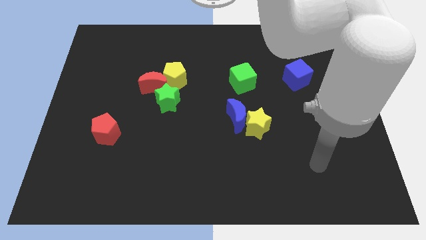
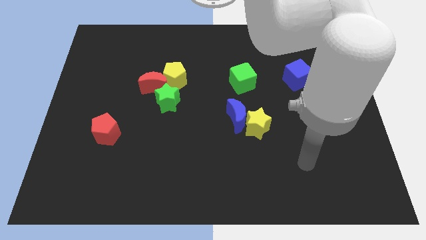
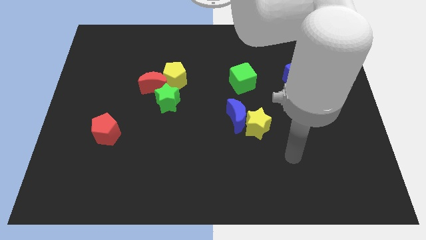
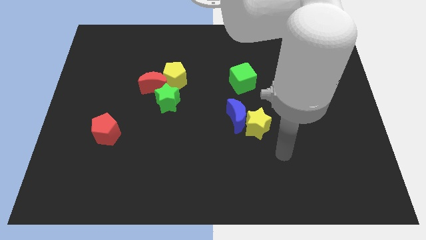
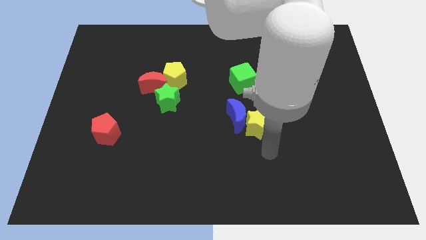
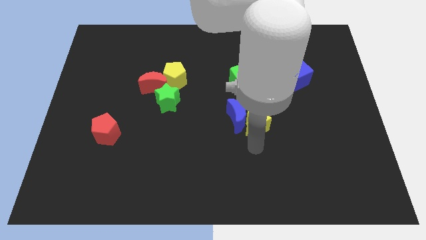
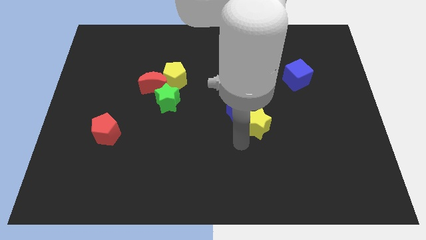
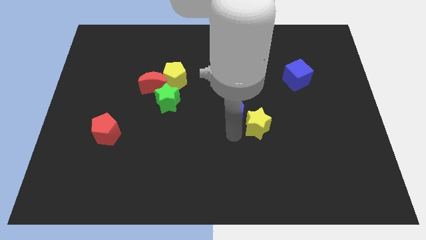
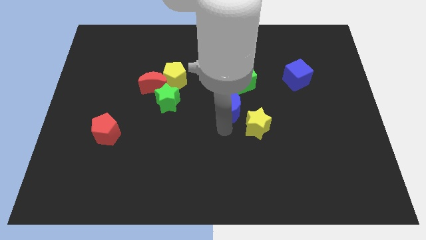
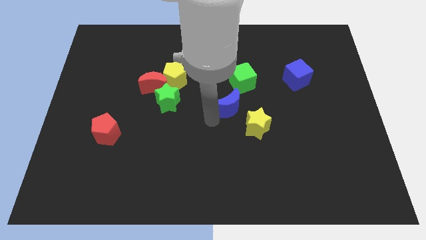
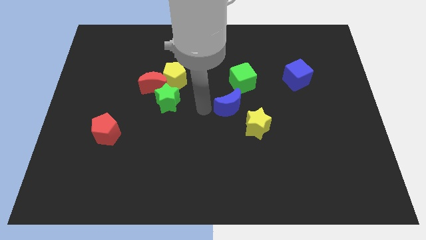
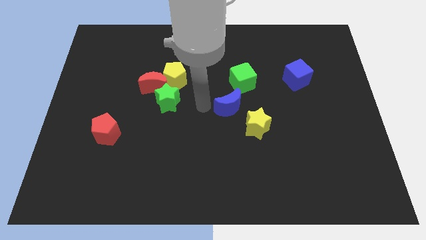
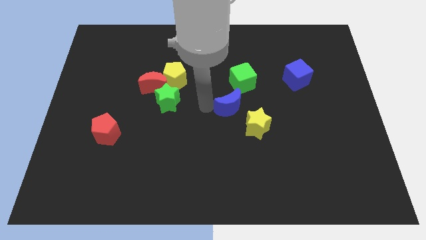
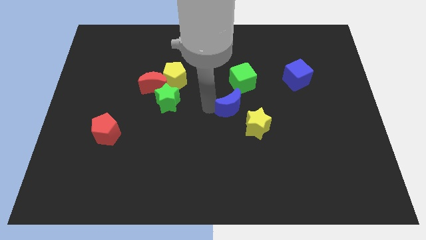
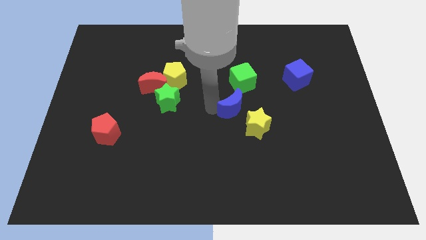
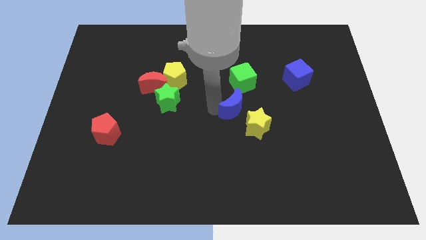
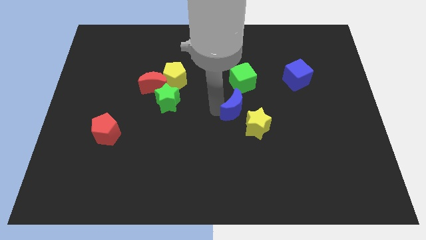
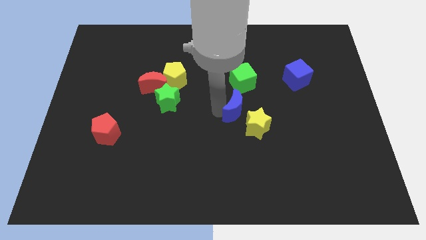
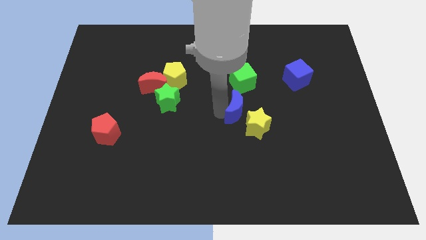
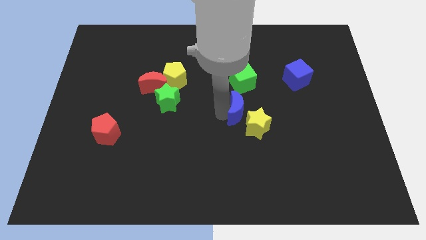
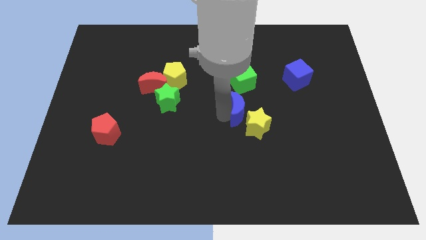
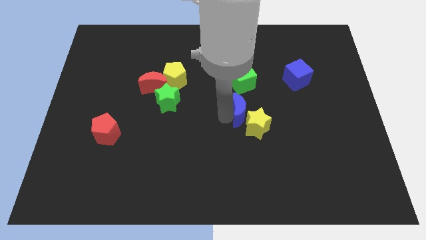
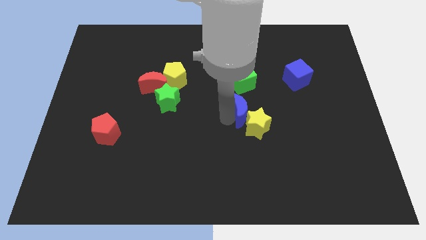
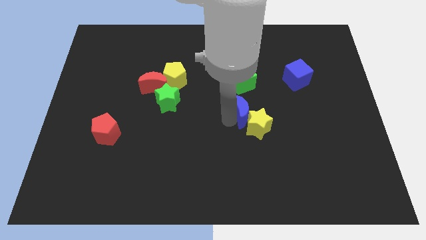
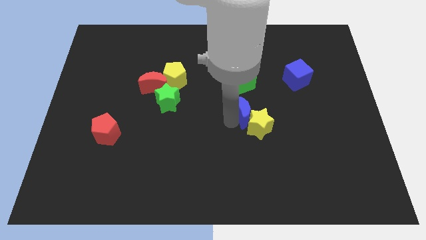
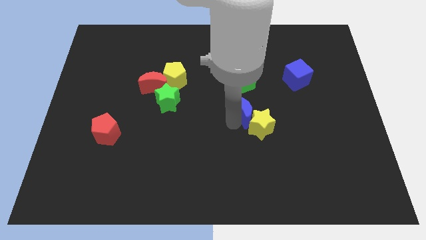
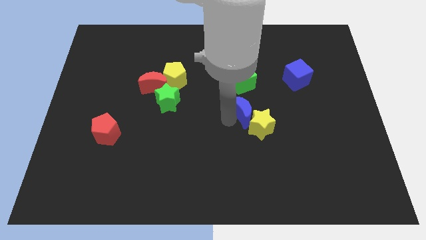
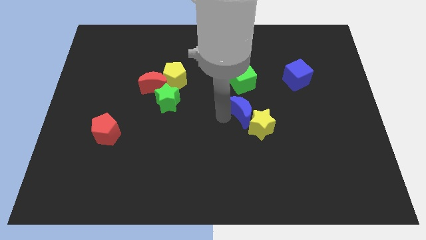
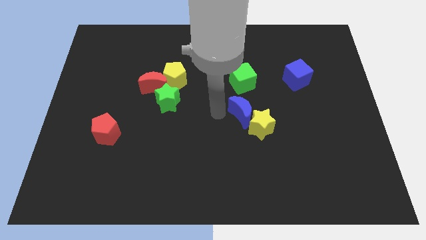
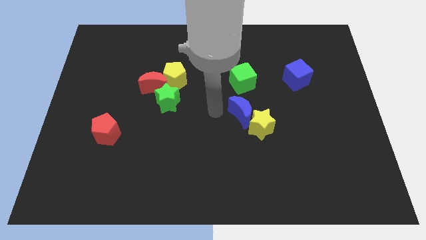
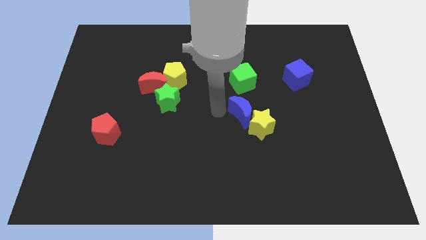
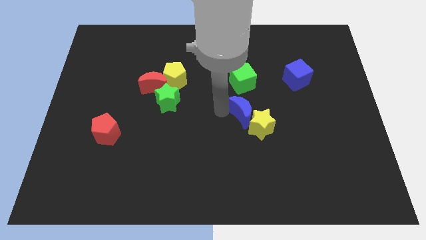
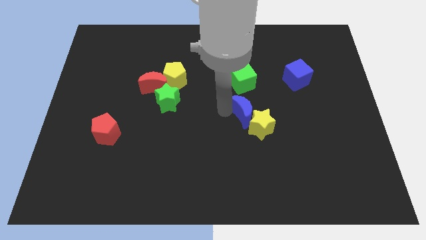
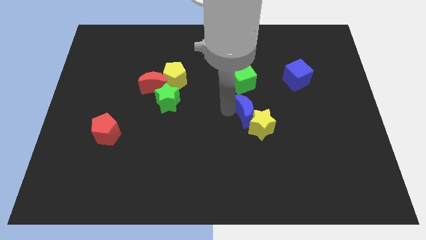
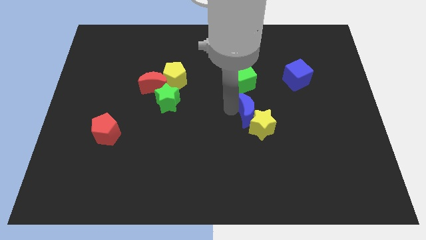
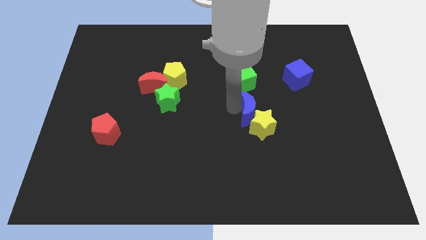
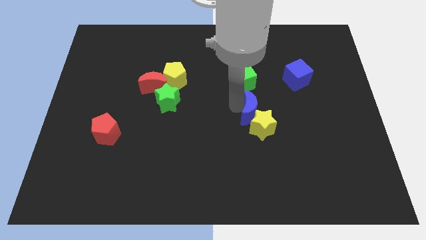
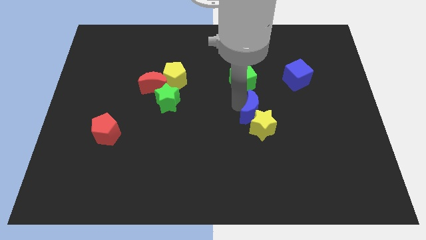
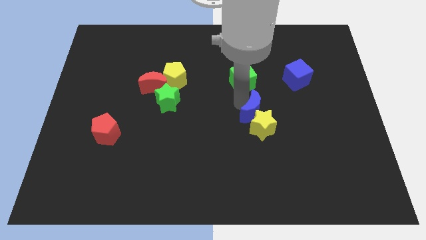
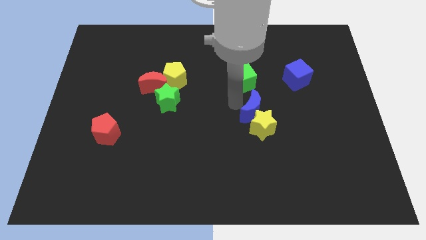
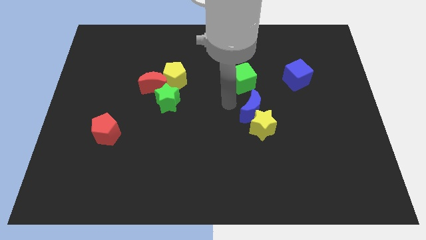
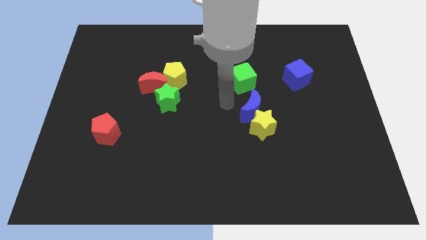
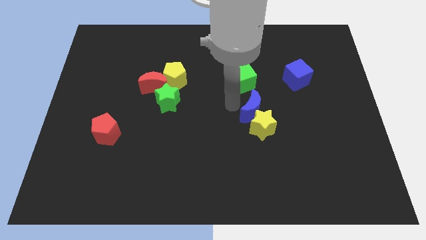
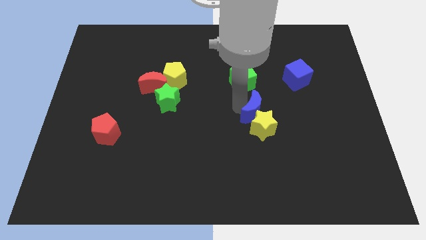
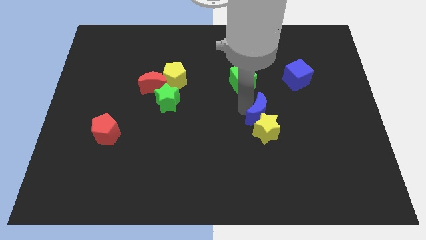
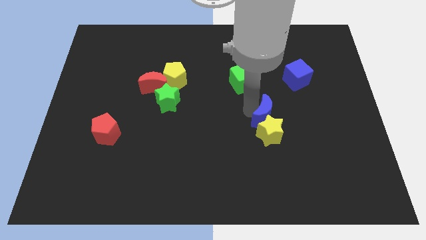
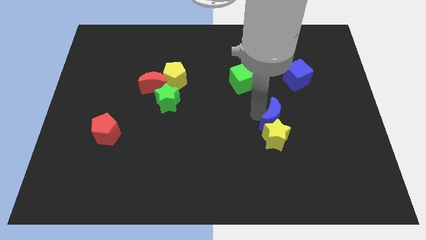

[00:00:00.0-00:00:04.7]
slightly move the blue moon right

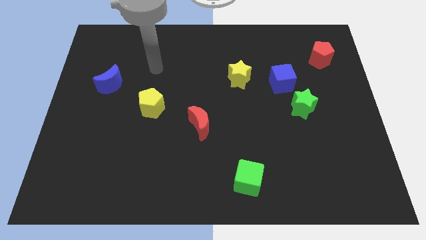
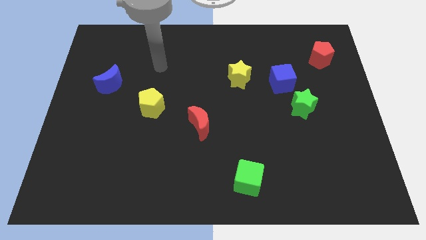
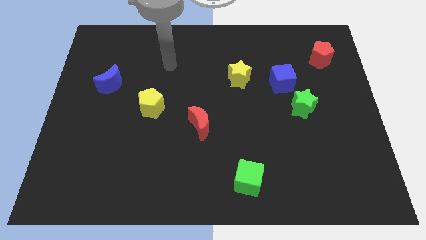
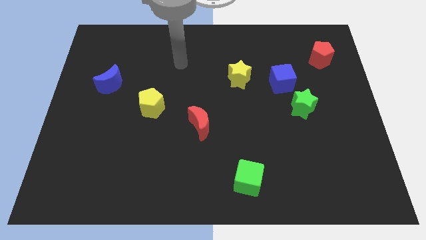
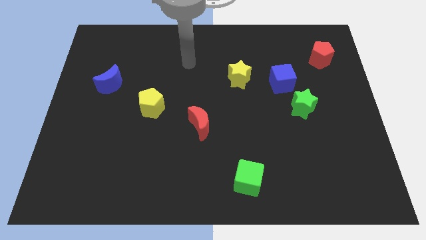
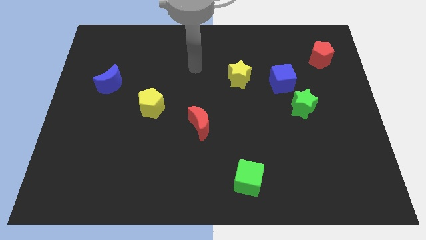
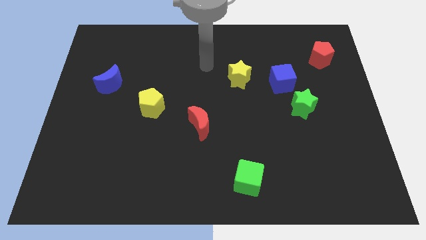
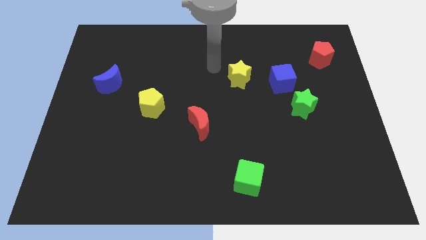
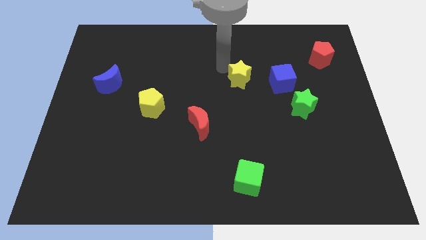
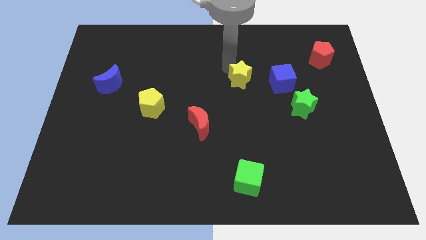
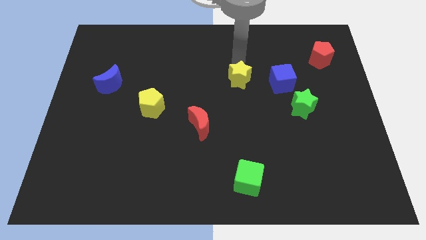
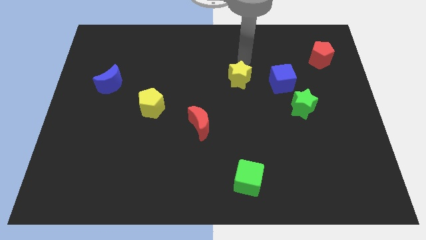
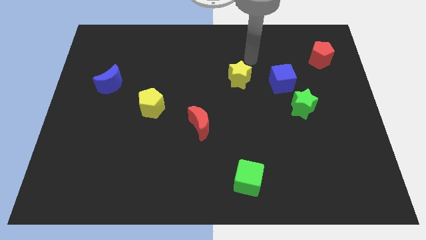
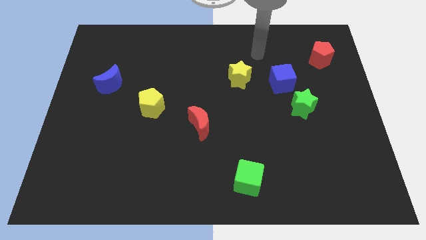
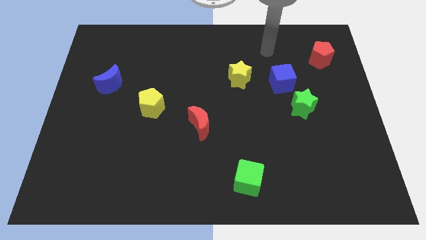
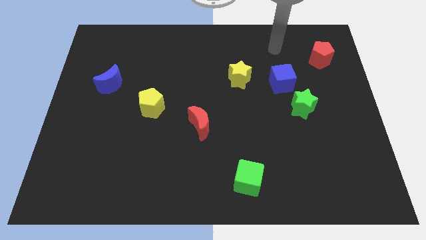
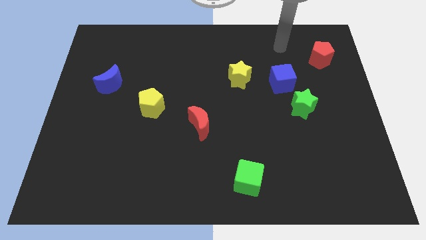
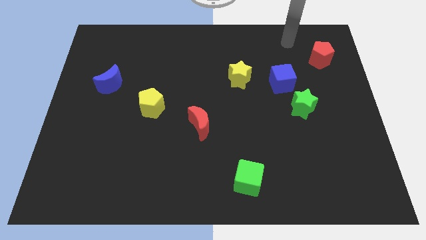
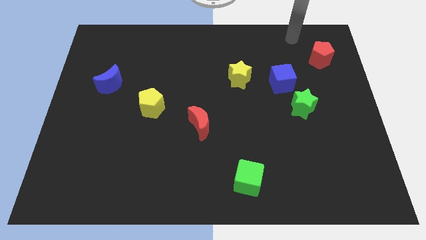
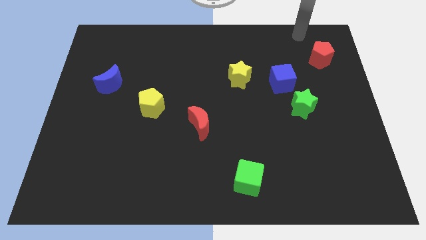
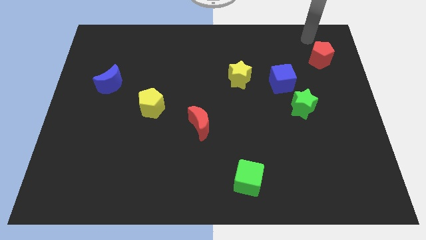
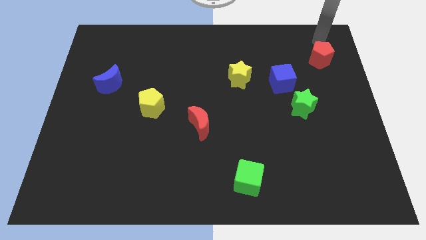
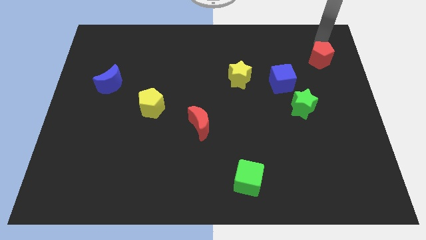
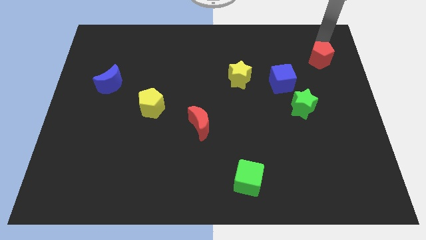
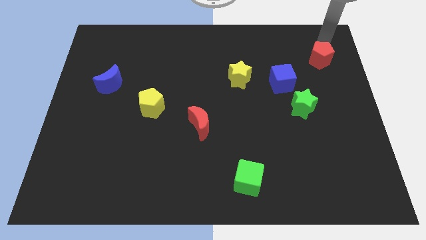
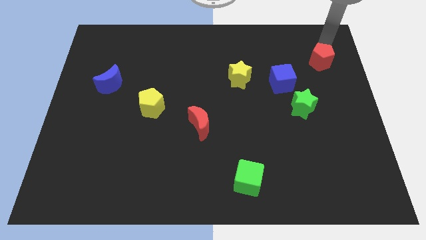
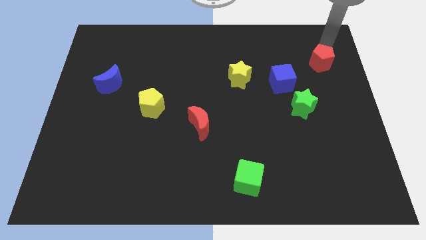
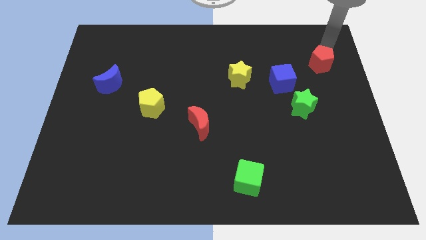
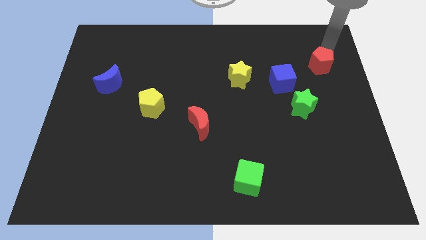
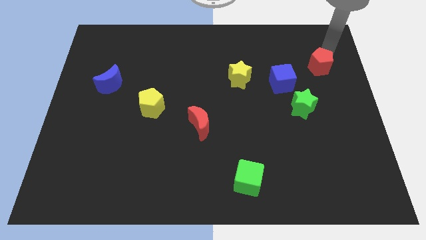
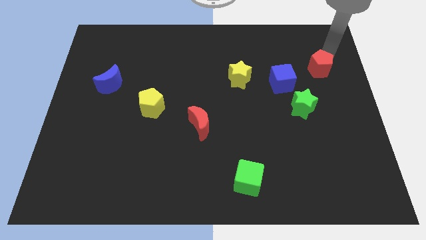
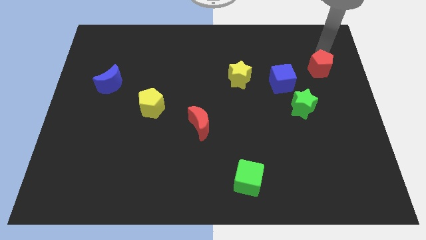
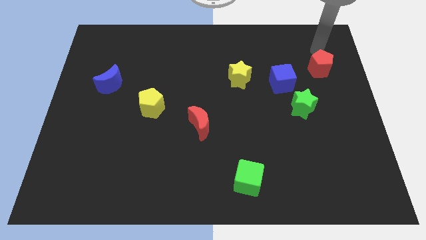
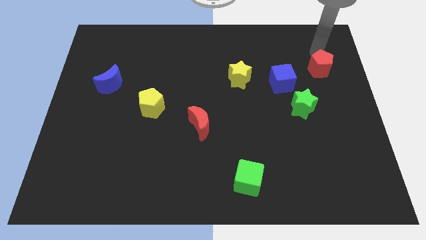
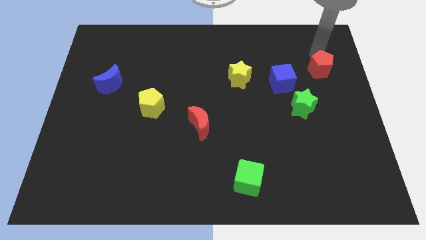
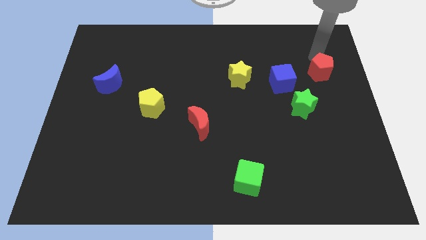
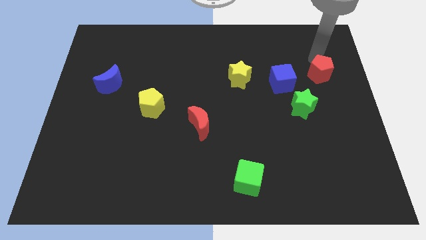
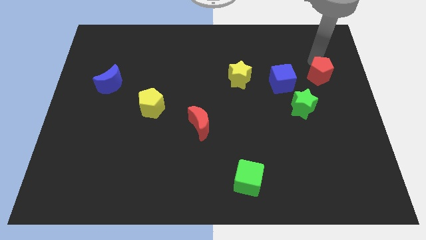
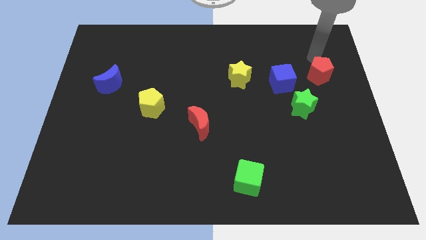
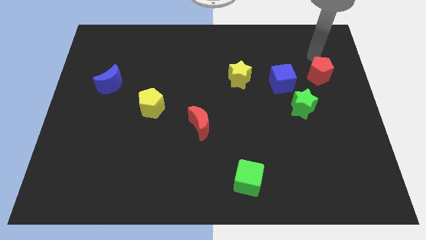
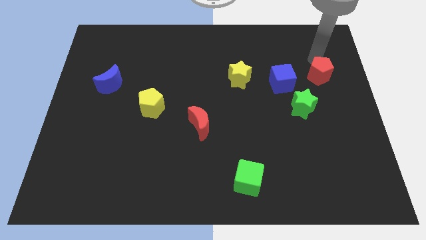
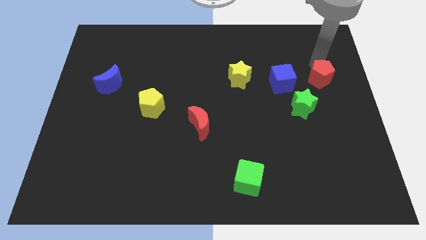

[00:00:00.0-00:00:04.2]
slightly push the red pentagon down
